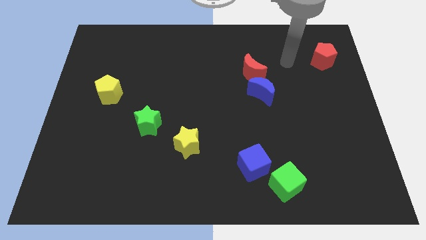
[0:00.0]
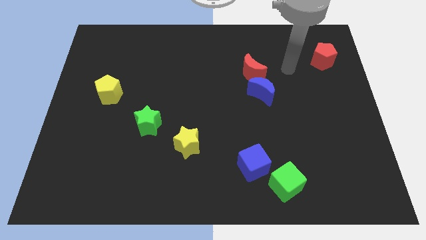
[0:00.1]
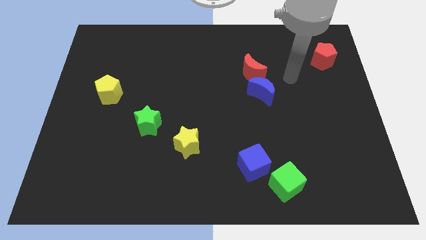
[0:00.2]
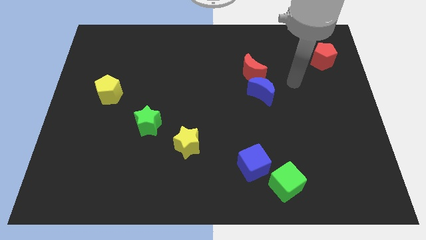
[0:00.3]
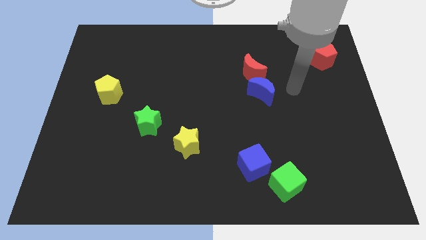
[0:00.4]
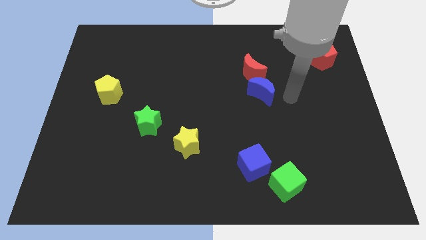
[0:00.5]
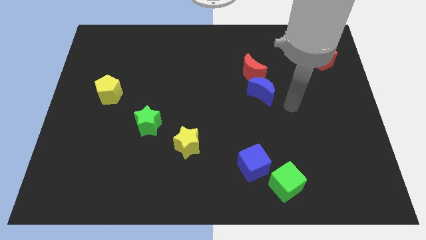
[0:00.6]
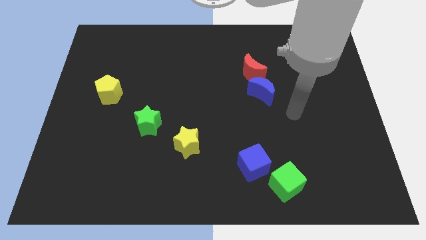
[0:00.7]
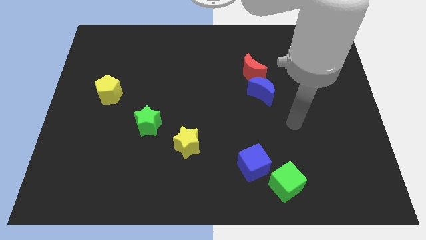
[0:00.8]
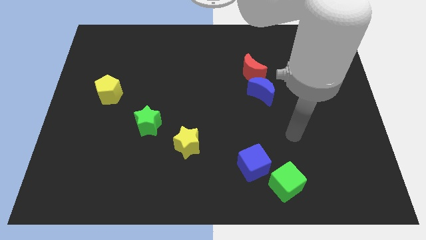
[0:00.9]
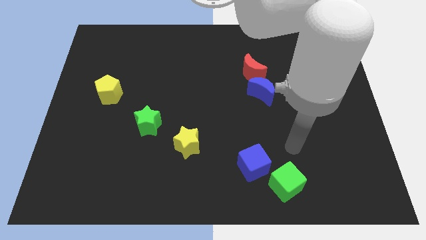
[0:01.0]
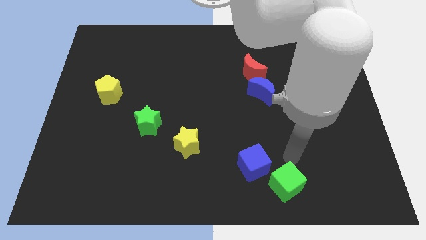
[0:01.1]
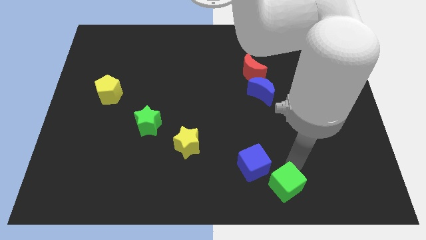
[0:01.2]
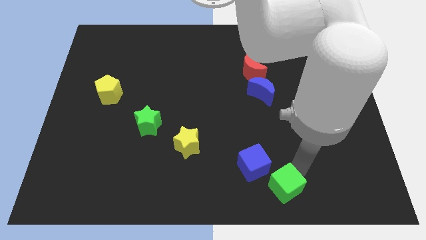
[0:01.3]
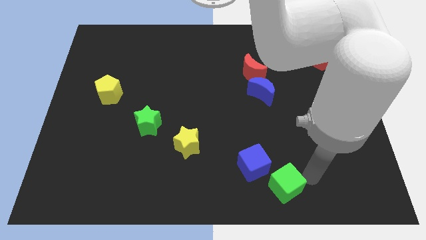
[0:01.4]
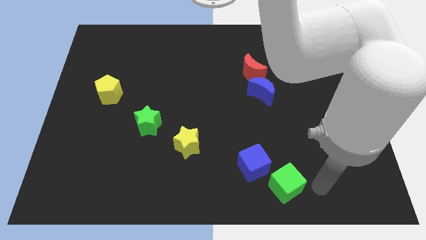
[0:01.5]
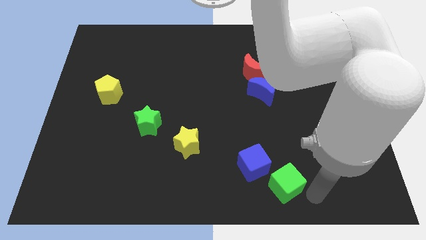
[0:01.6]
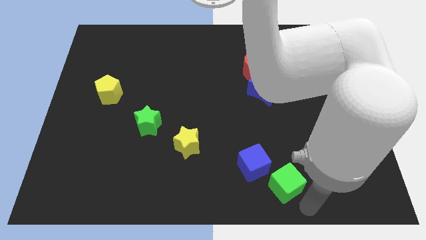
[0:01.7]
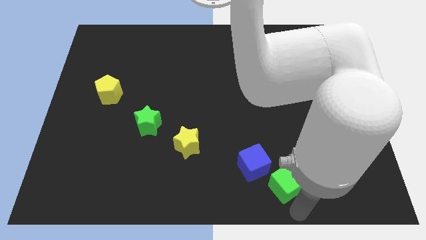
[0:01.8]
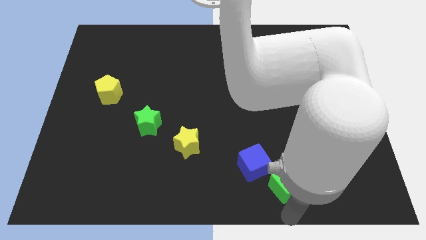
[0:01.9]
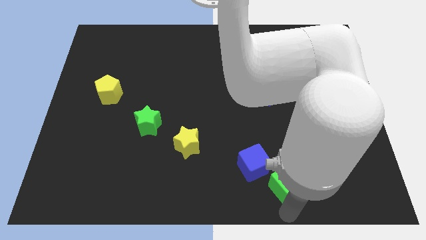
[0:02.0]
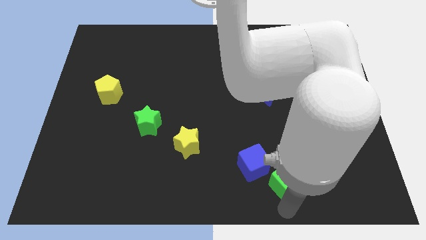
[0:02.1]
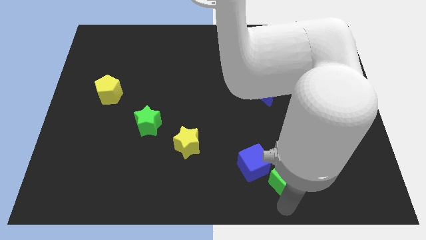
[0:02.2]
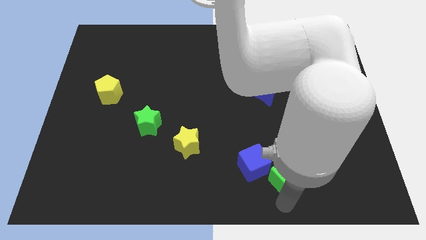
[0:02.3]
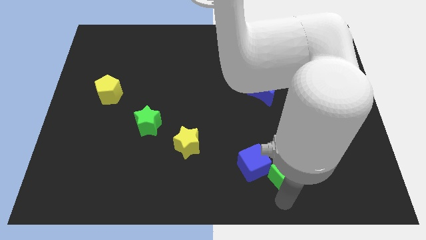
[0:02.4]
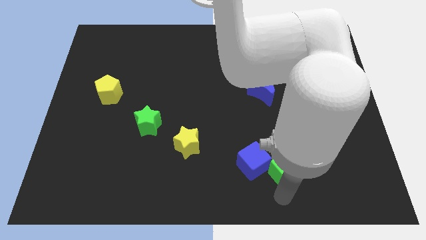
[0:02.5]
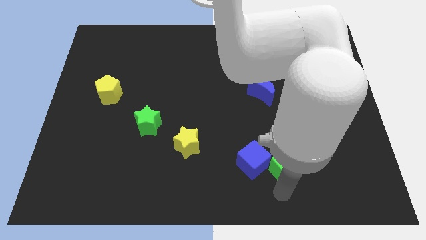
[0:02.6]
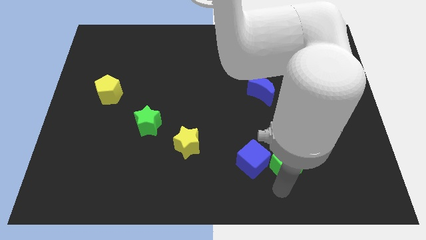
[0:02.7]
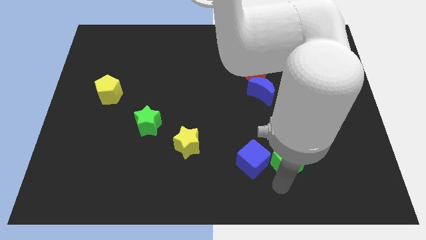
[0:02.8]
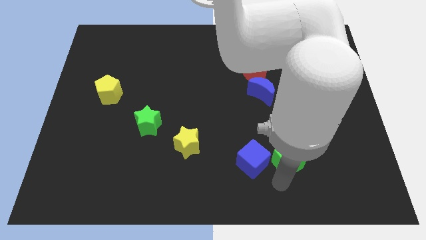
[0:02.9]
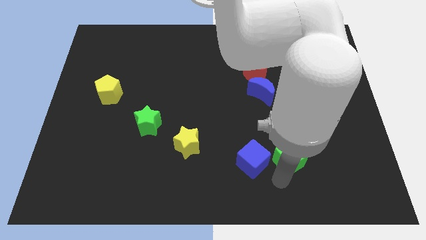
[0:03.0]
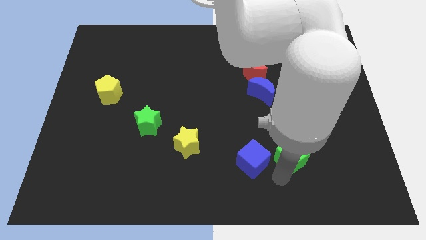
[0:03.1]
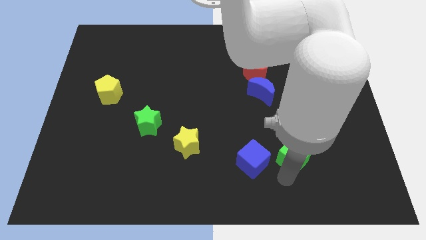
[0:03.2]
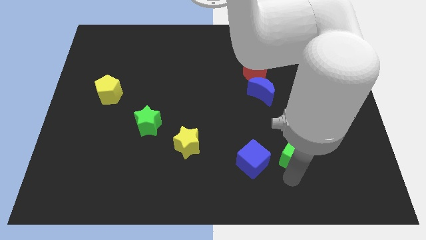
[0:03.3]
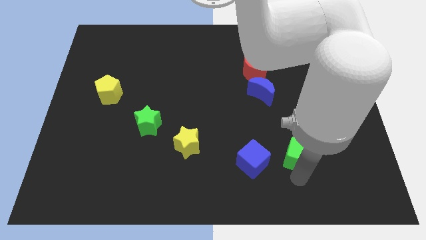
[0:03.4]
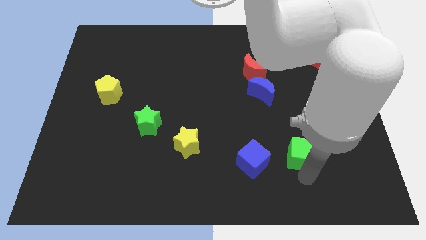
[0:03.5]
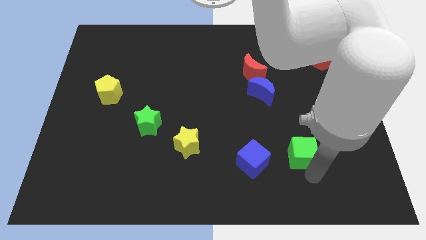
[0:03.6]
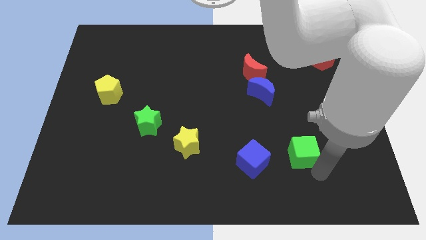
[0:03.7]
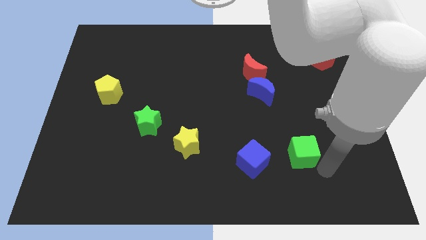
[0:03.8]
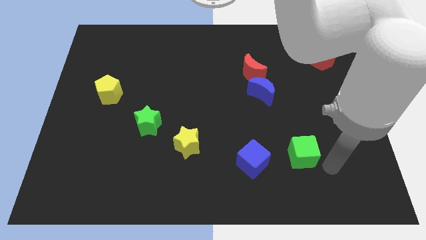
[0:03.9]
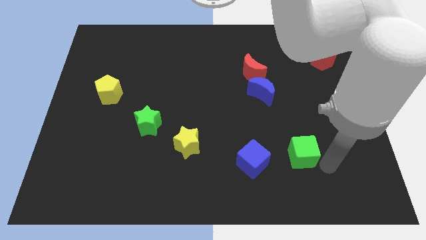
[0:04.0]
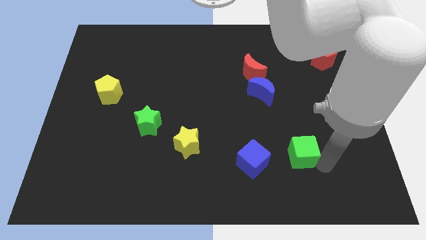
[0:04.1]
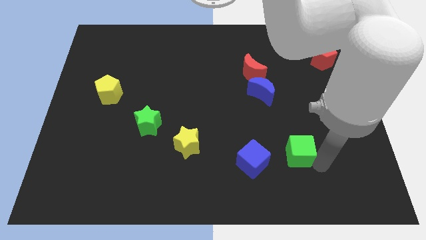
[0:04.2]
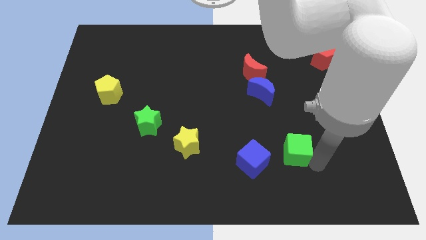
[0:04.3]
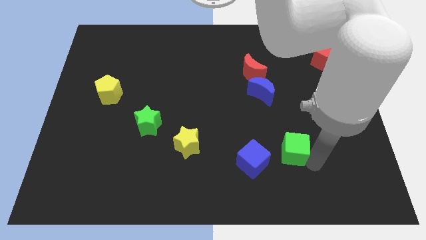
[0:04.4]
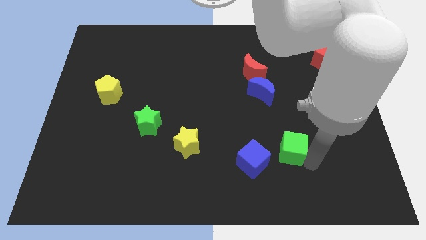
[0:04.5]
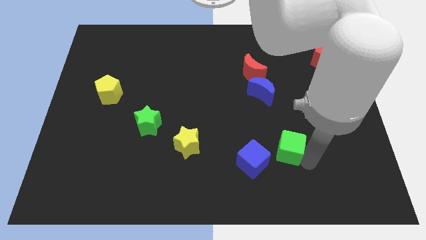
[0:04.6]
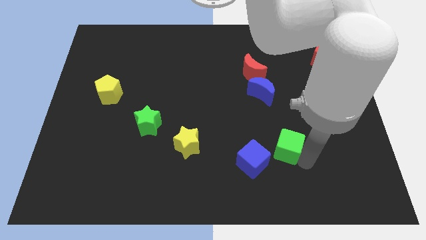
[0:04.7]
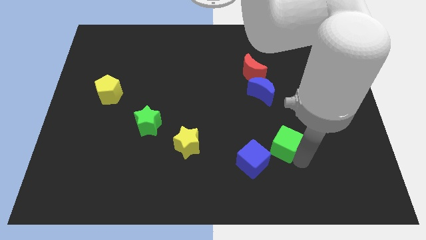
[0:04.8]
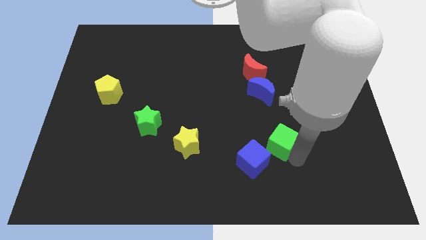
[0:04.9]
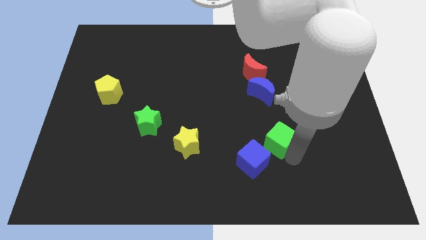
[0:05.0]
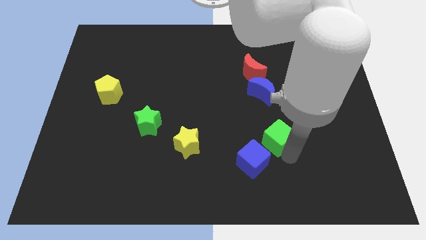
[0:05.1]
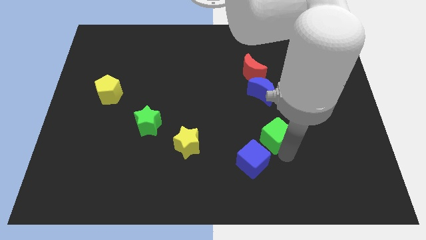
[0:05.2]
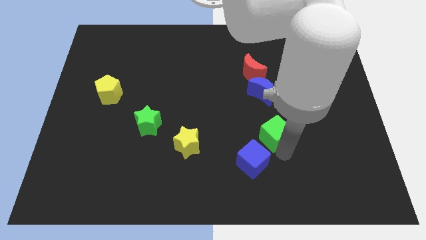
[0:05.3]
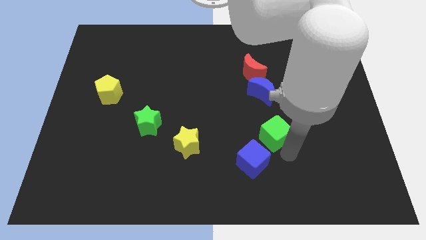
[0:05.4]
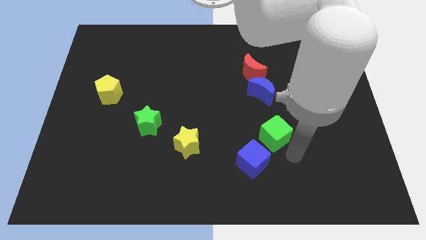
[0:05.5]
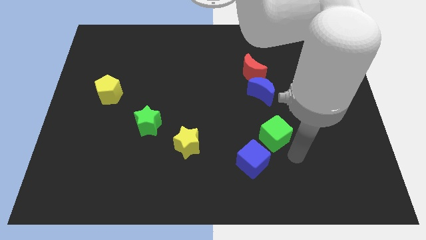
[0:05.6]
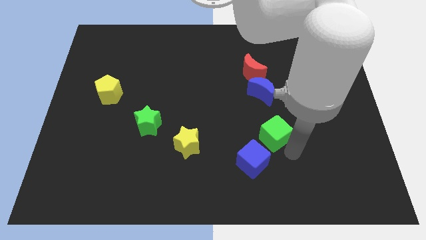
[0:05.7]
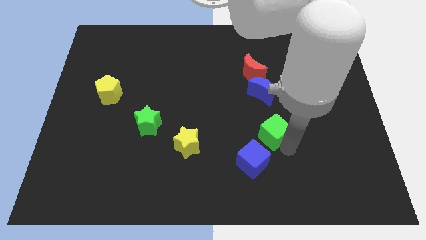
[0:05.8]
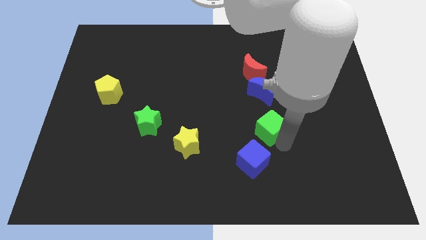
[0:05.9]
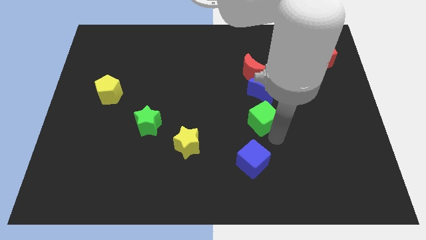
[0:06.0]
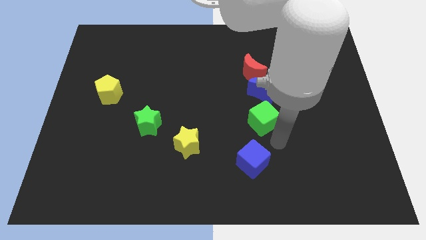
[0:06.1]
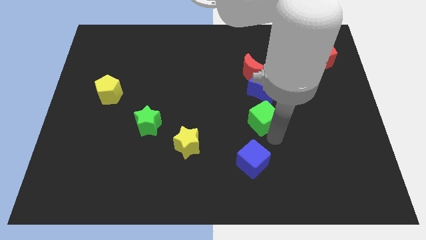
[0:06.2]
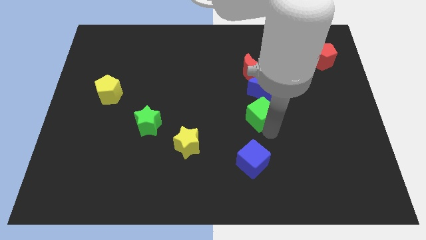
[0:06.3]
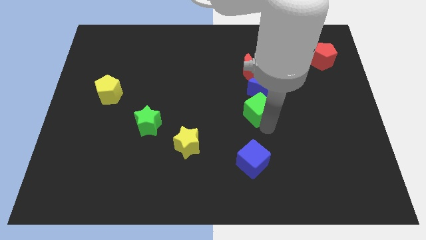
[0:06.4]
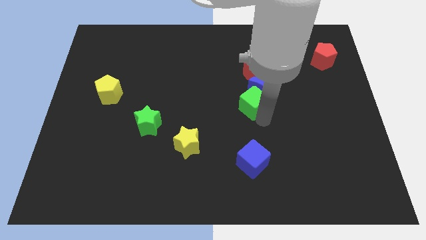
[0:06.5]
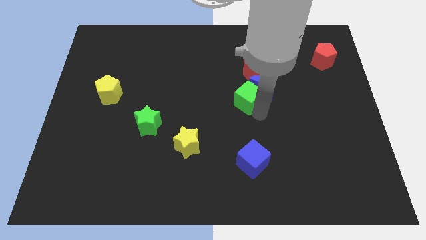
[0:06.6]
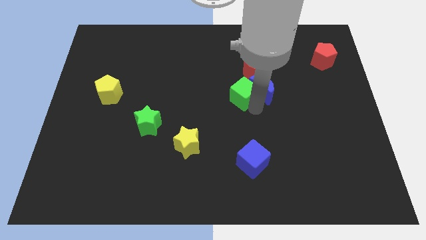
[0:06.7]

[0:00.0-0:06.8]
put the green cube to the bottom left of the red moon

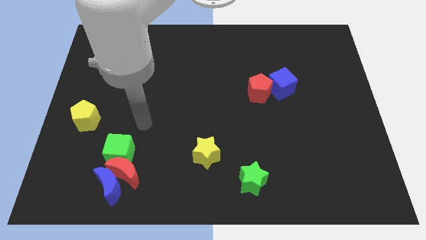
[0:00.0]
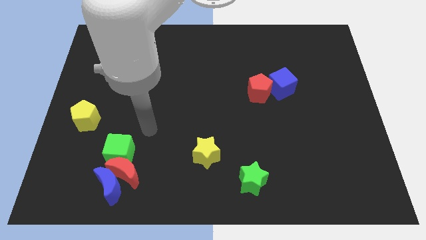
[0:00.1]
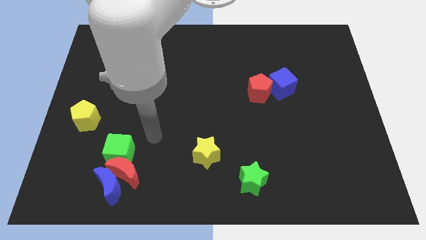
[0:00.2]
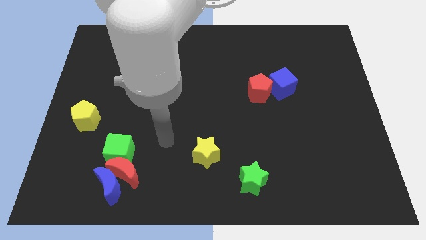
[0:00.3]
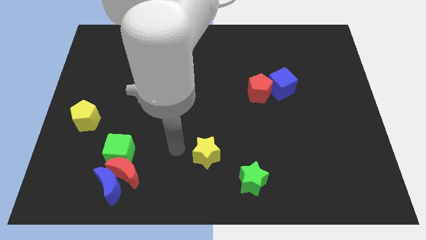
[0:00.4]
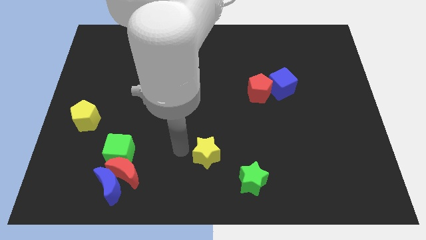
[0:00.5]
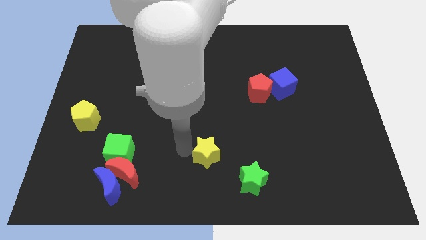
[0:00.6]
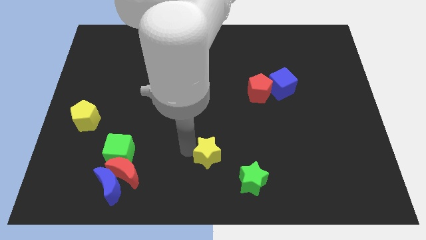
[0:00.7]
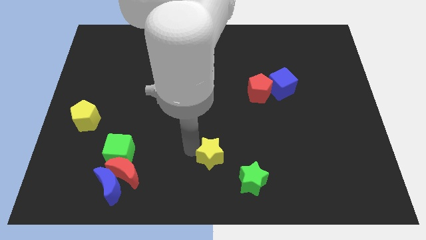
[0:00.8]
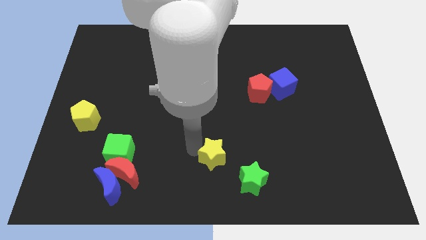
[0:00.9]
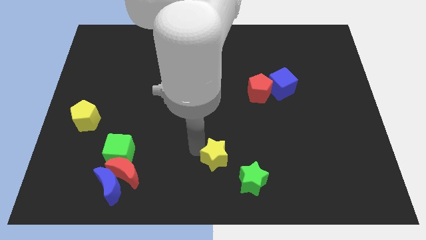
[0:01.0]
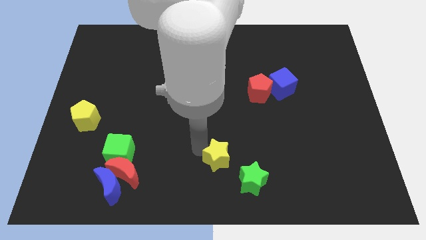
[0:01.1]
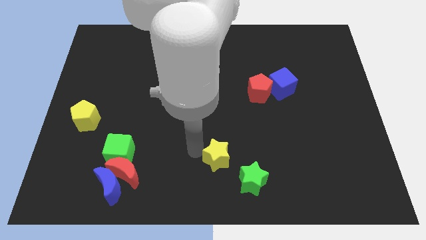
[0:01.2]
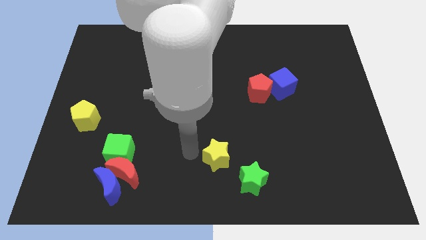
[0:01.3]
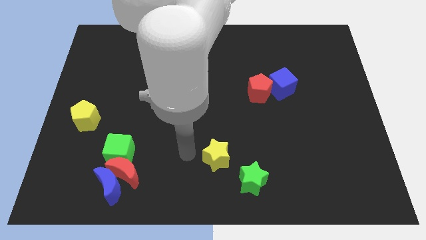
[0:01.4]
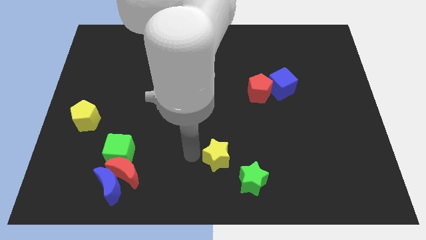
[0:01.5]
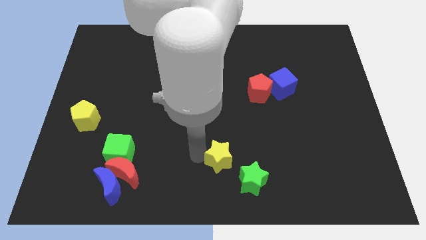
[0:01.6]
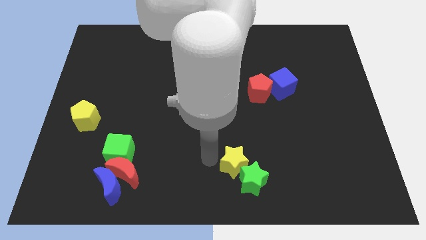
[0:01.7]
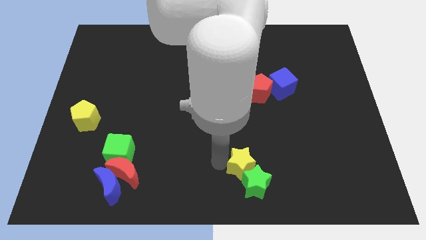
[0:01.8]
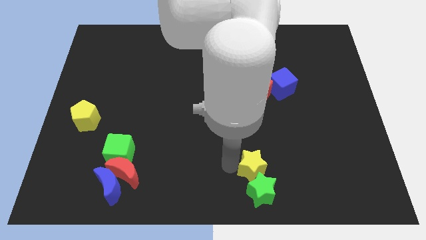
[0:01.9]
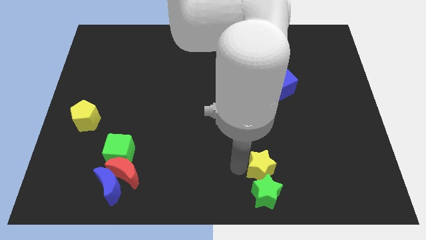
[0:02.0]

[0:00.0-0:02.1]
slide the yellow star to the top right of the green star
